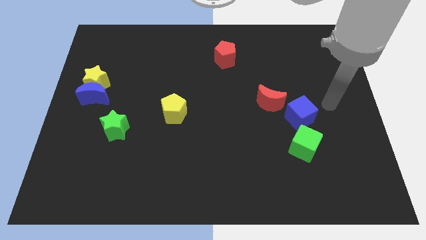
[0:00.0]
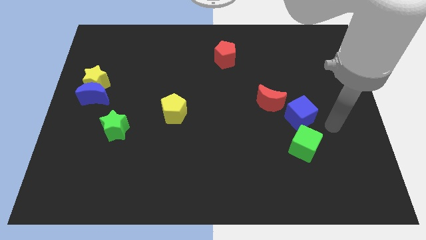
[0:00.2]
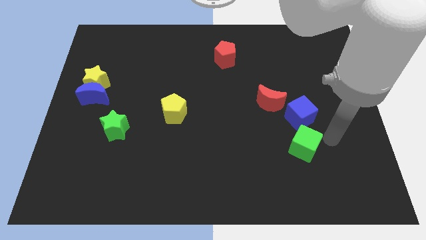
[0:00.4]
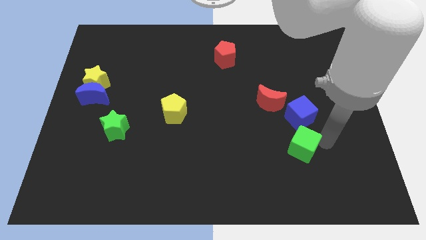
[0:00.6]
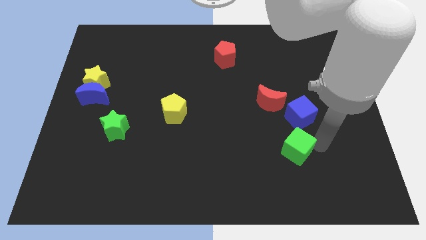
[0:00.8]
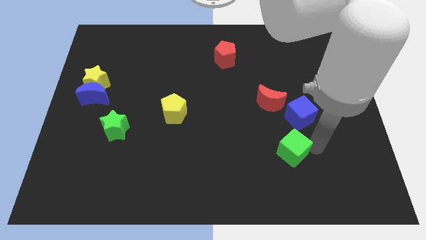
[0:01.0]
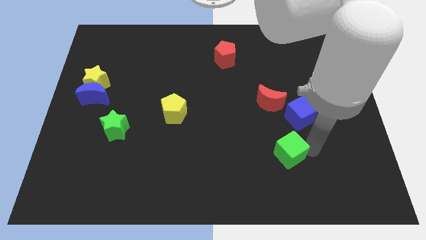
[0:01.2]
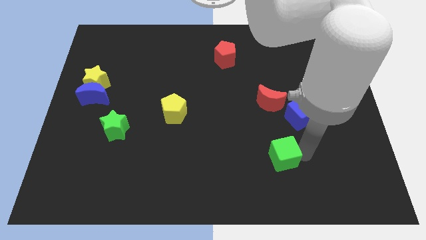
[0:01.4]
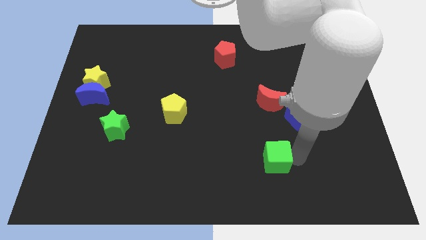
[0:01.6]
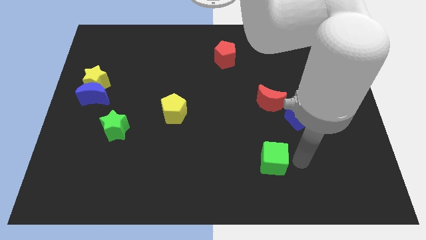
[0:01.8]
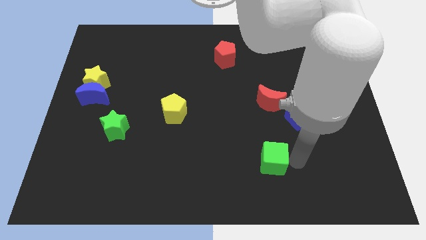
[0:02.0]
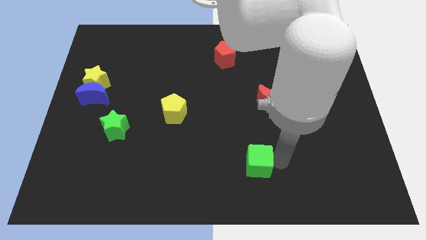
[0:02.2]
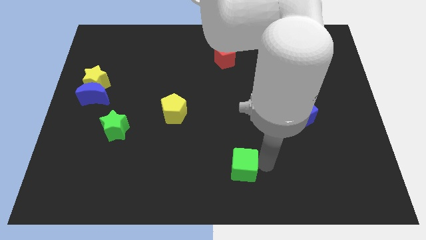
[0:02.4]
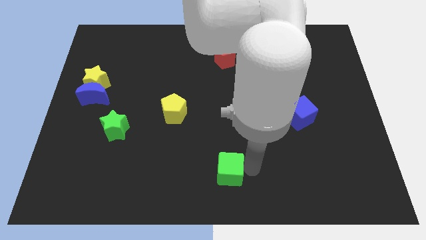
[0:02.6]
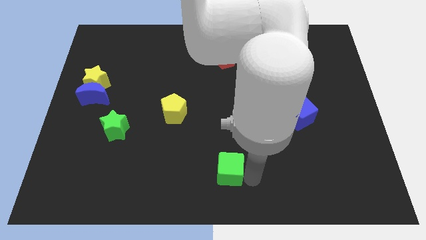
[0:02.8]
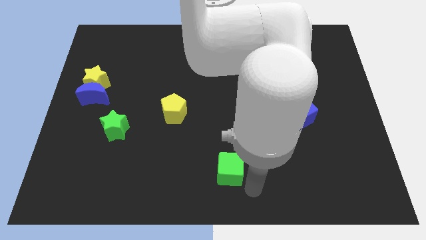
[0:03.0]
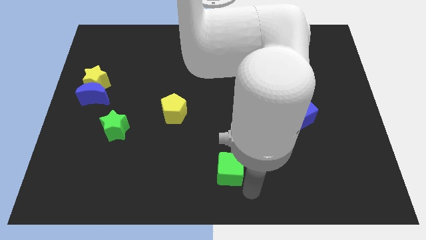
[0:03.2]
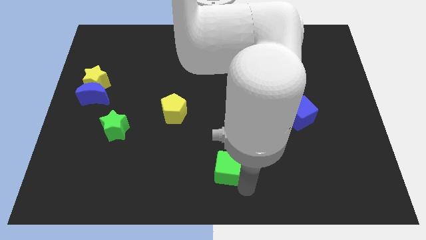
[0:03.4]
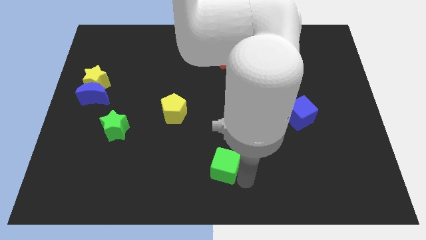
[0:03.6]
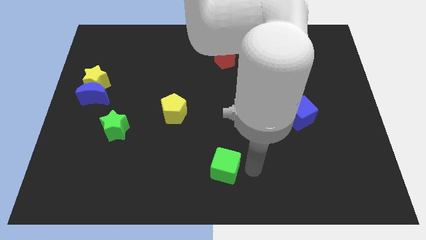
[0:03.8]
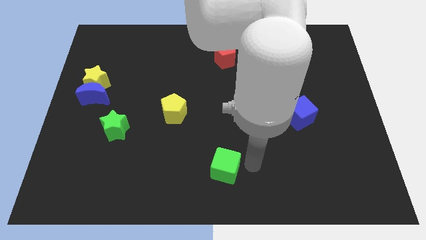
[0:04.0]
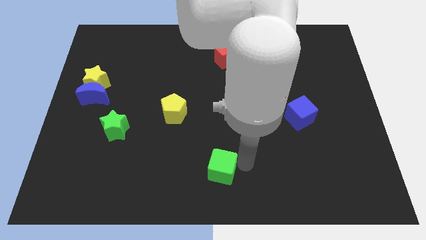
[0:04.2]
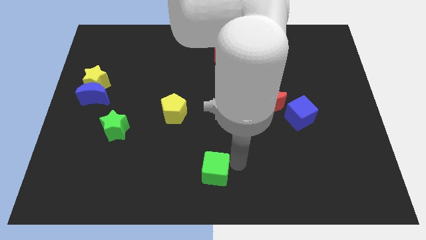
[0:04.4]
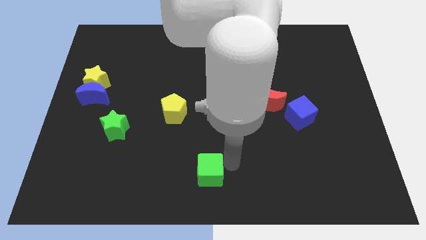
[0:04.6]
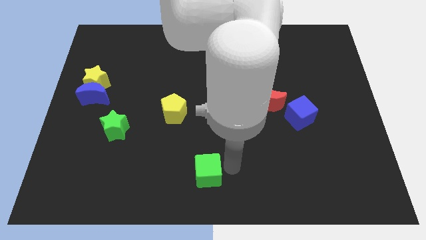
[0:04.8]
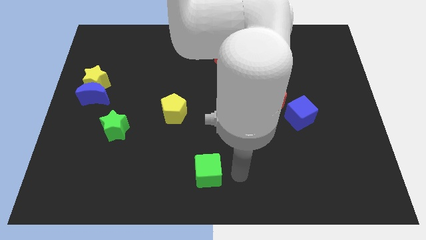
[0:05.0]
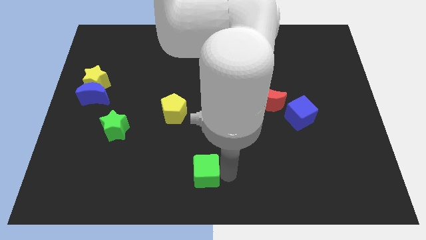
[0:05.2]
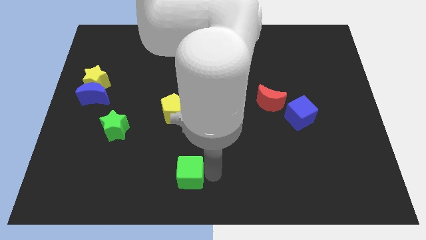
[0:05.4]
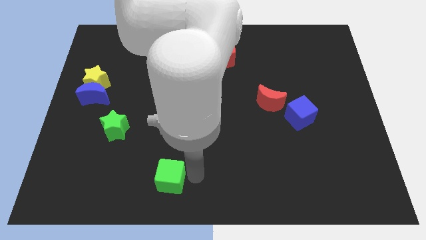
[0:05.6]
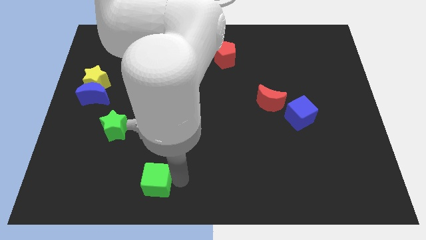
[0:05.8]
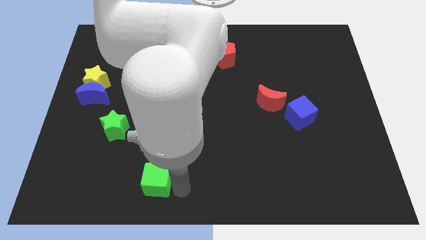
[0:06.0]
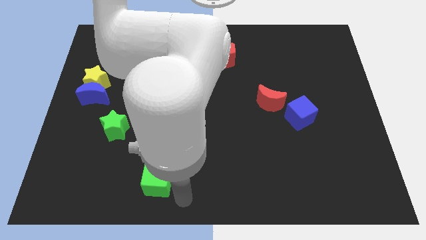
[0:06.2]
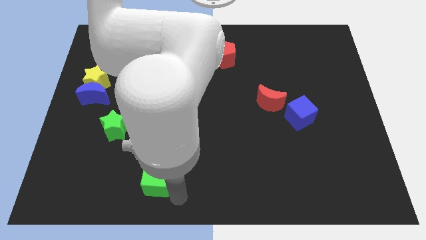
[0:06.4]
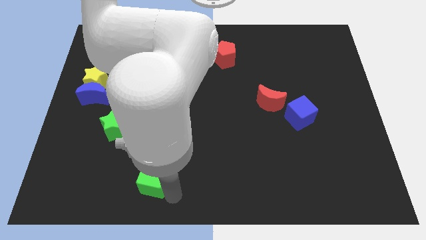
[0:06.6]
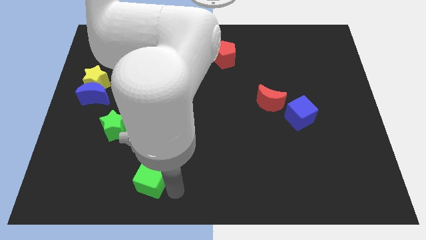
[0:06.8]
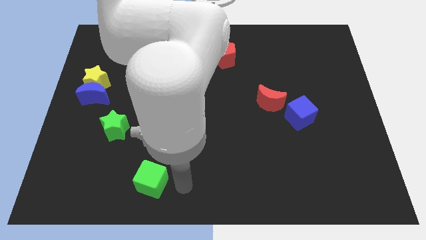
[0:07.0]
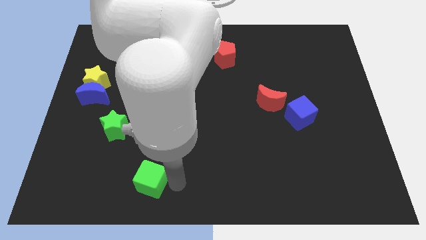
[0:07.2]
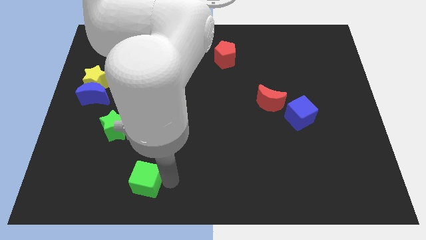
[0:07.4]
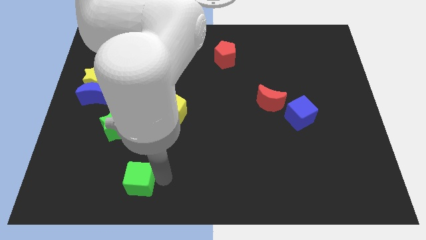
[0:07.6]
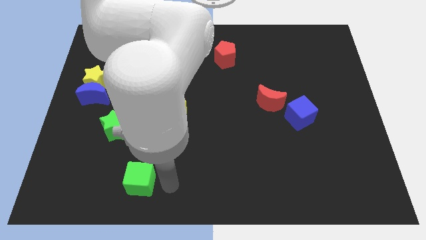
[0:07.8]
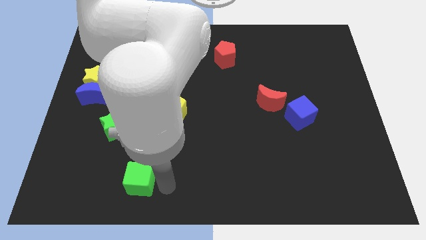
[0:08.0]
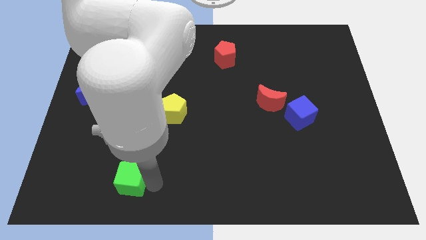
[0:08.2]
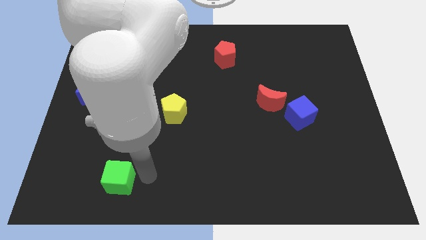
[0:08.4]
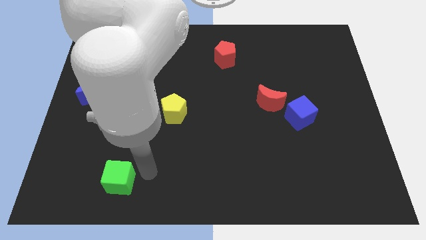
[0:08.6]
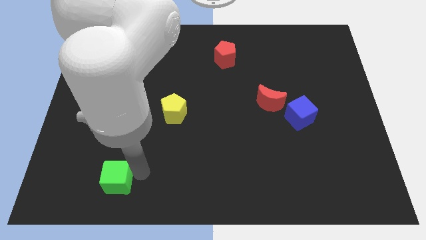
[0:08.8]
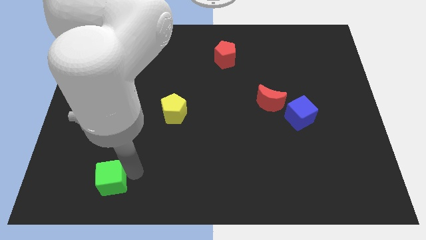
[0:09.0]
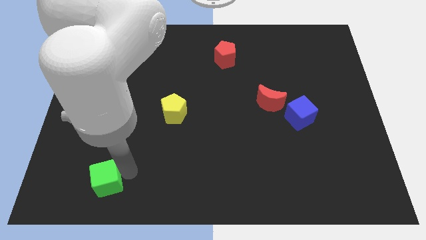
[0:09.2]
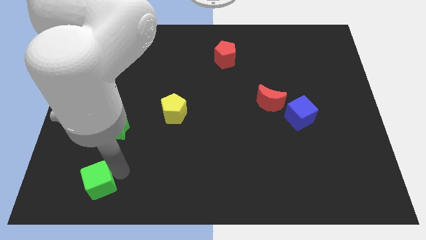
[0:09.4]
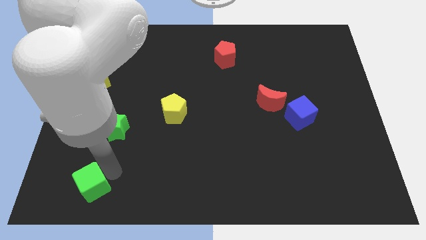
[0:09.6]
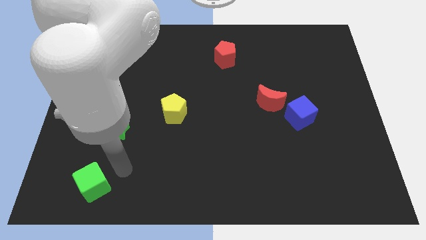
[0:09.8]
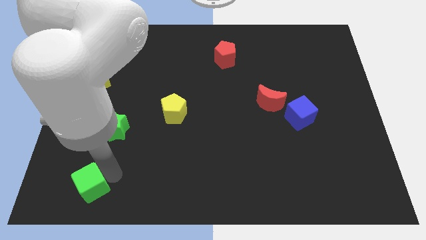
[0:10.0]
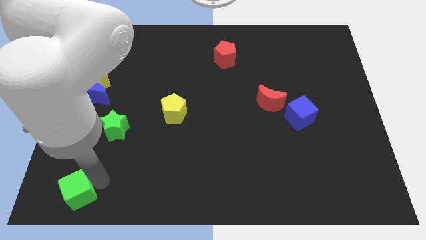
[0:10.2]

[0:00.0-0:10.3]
put the green cube to the bottom left

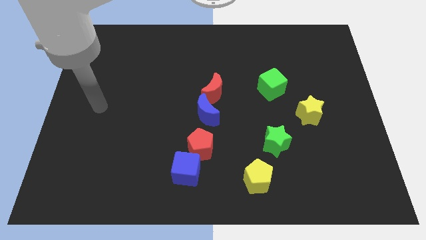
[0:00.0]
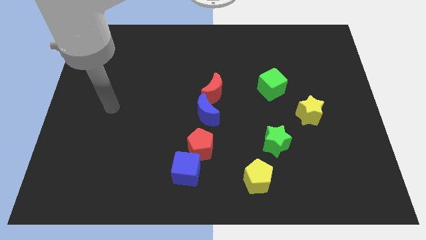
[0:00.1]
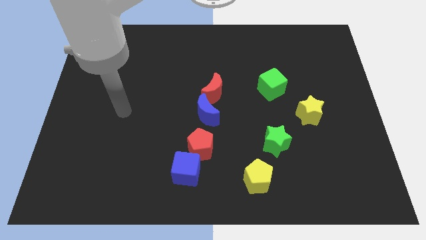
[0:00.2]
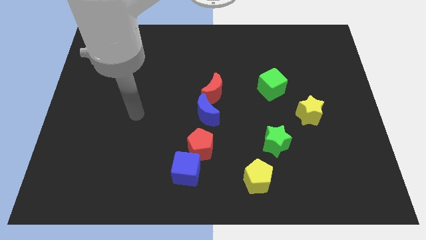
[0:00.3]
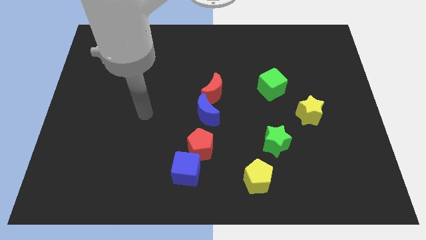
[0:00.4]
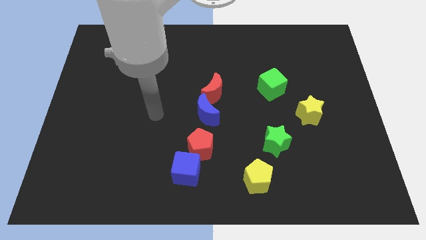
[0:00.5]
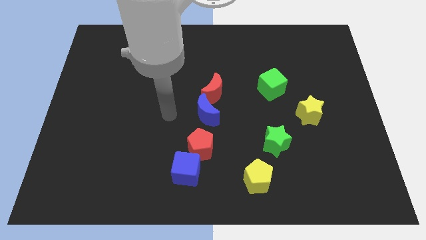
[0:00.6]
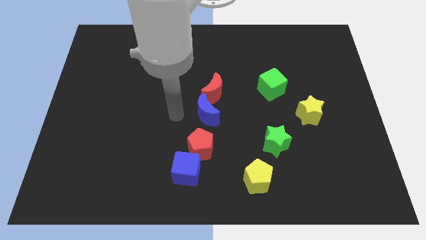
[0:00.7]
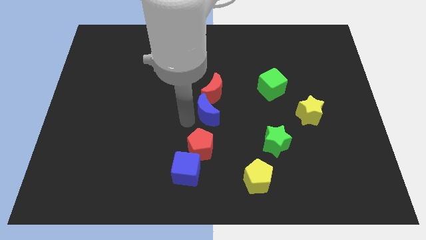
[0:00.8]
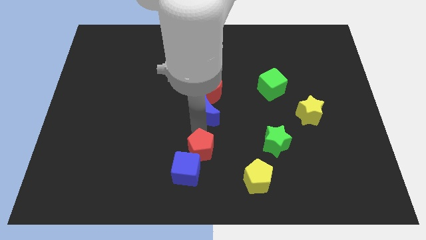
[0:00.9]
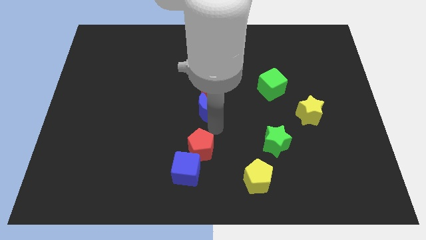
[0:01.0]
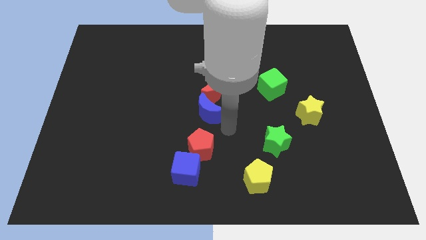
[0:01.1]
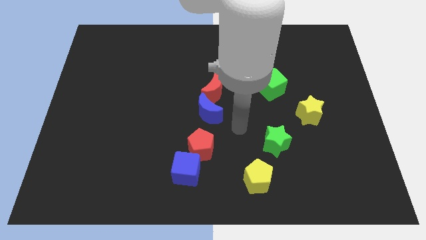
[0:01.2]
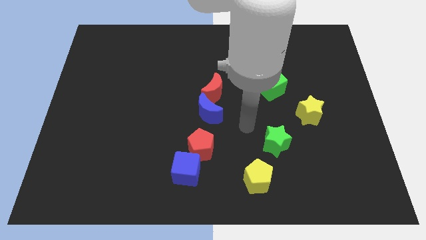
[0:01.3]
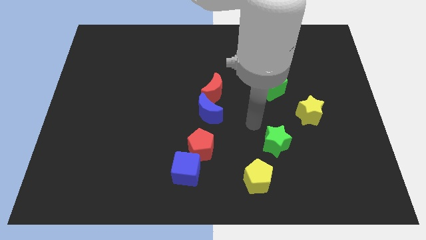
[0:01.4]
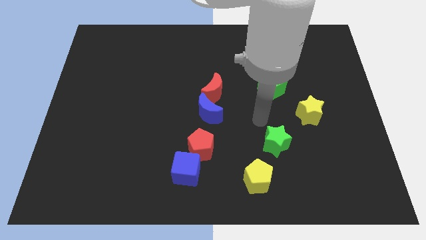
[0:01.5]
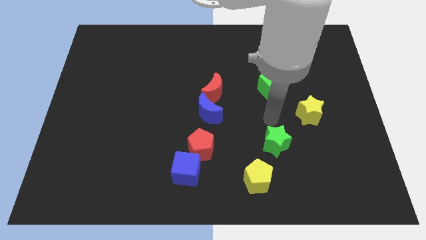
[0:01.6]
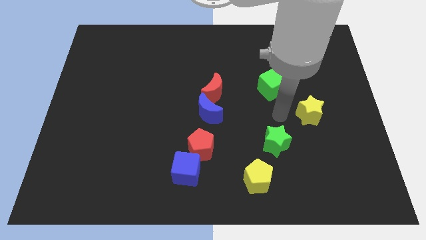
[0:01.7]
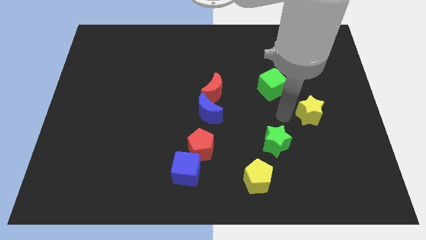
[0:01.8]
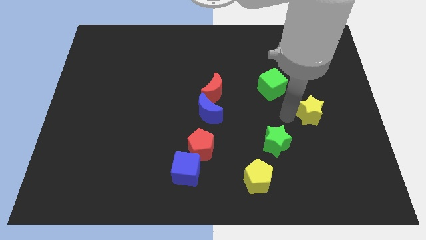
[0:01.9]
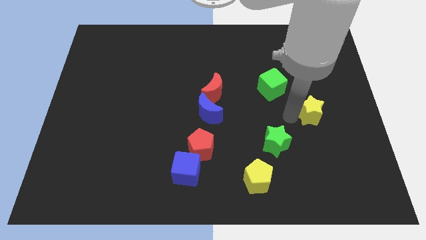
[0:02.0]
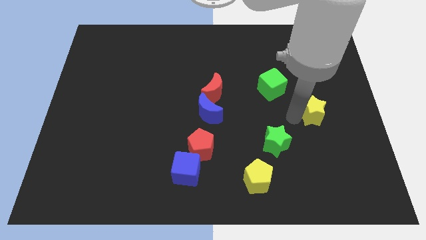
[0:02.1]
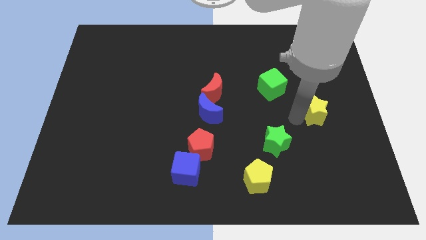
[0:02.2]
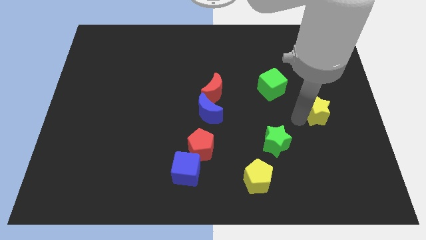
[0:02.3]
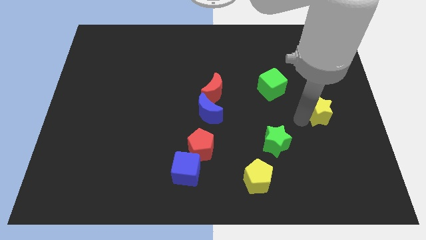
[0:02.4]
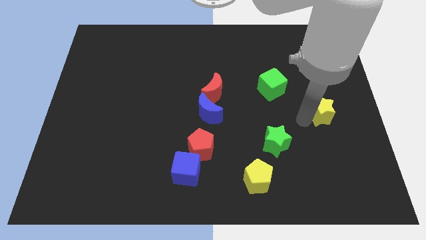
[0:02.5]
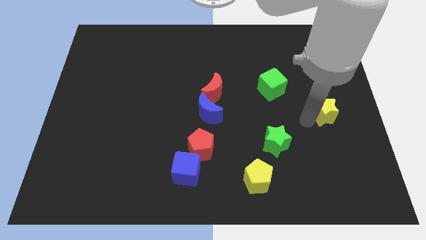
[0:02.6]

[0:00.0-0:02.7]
put the yellow star to the center right
